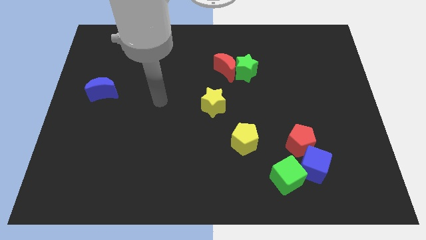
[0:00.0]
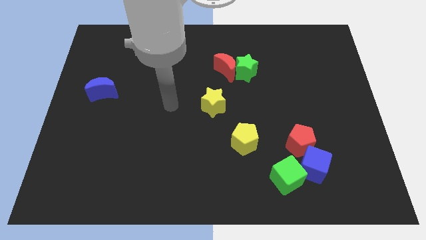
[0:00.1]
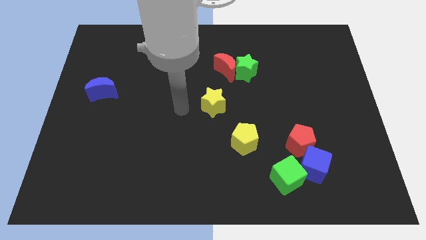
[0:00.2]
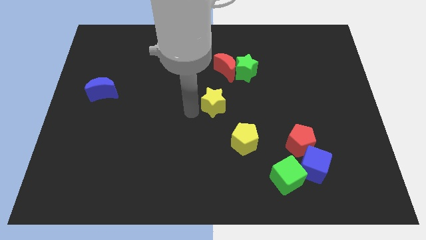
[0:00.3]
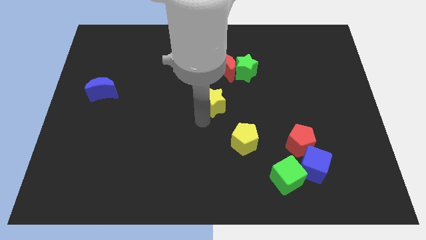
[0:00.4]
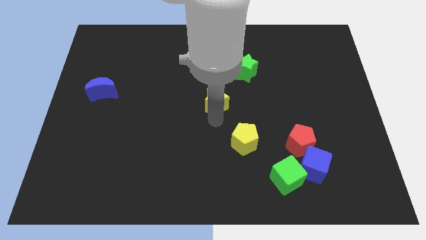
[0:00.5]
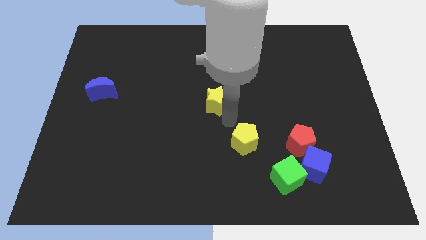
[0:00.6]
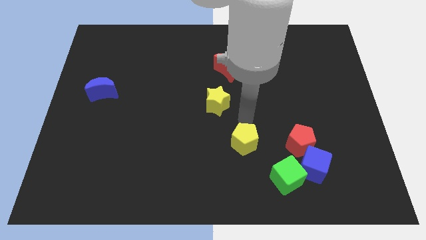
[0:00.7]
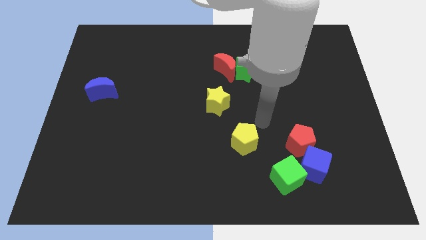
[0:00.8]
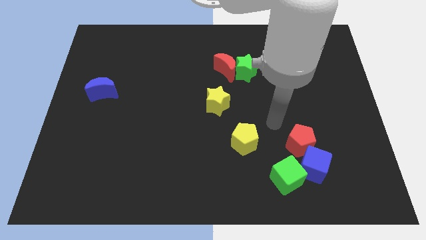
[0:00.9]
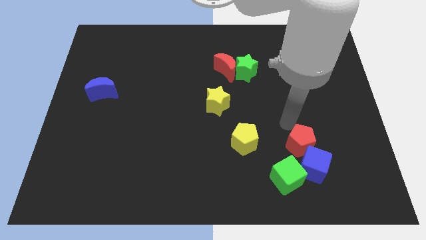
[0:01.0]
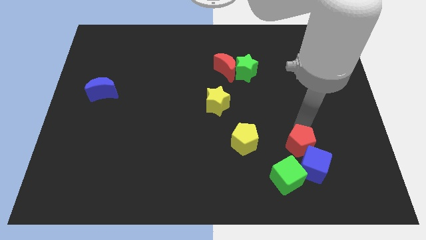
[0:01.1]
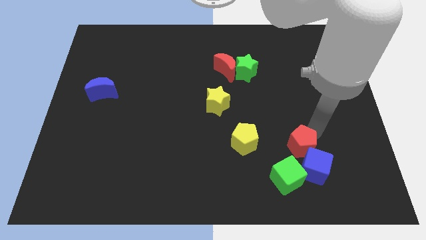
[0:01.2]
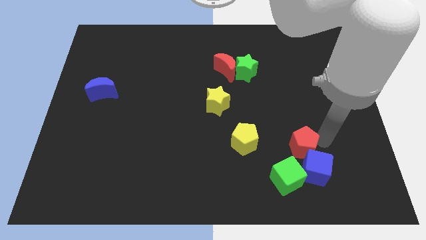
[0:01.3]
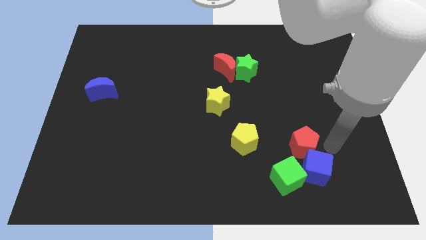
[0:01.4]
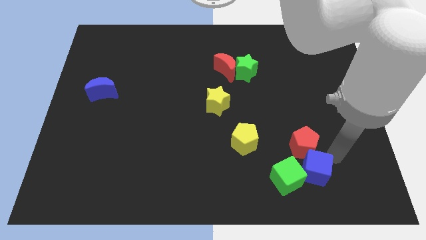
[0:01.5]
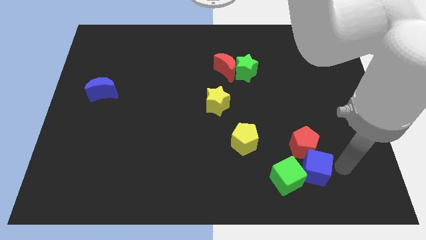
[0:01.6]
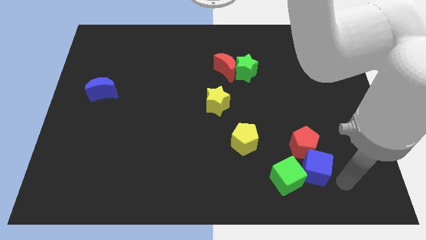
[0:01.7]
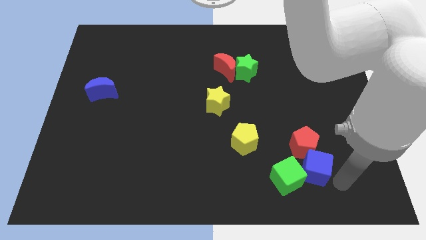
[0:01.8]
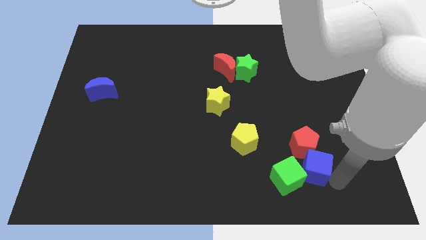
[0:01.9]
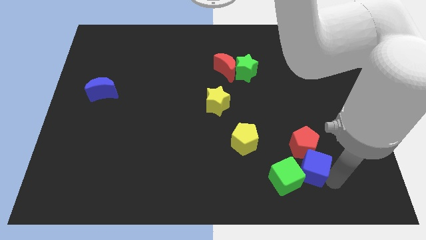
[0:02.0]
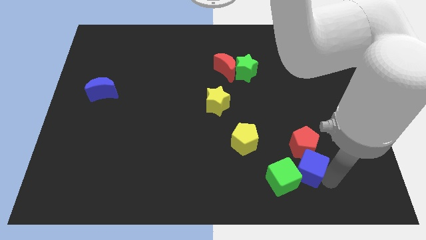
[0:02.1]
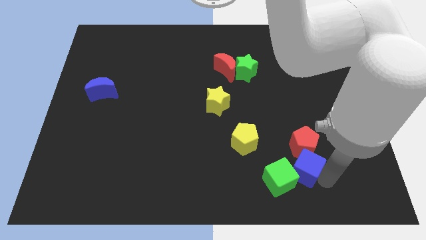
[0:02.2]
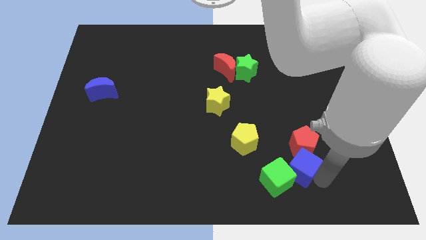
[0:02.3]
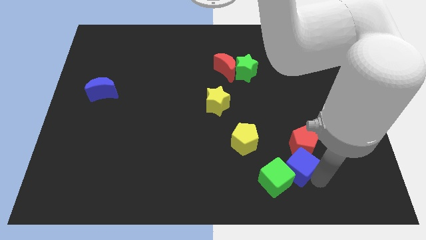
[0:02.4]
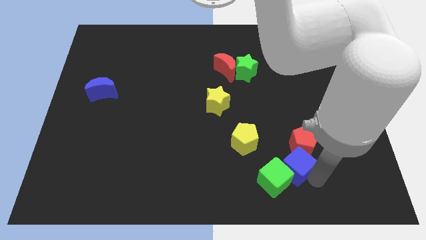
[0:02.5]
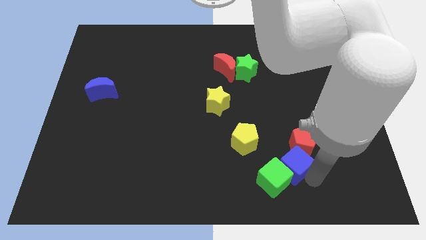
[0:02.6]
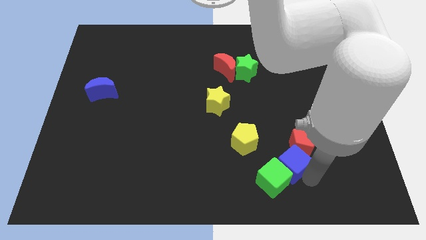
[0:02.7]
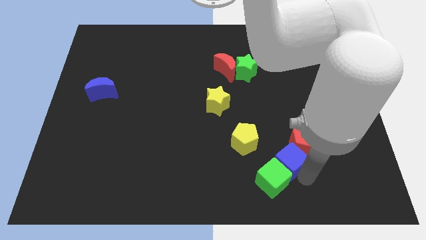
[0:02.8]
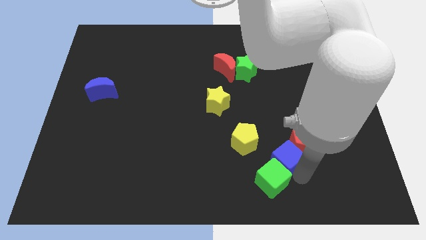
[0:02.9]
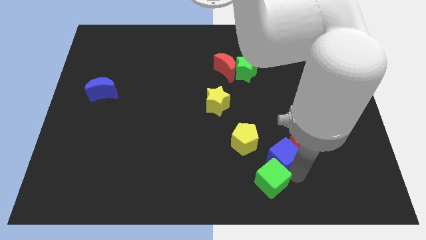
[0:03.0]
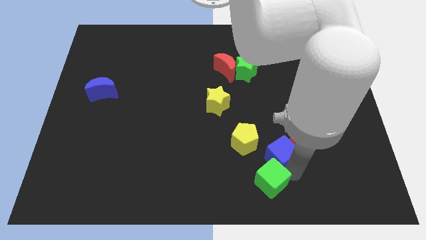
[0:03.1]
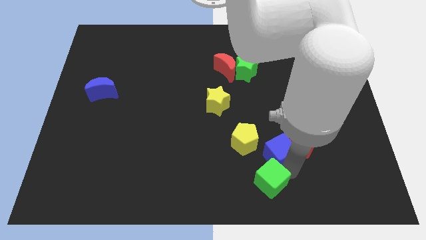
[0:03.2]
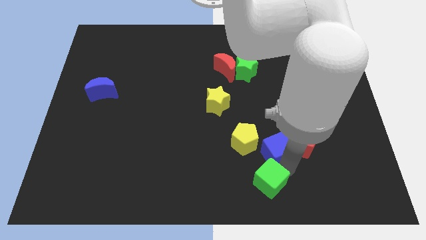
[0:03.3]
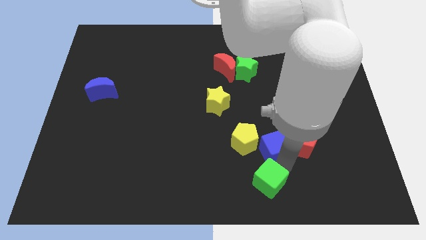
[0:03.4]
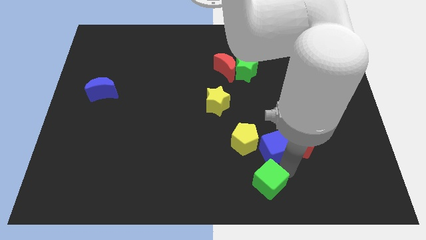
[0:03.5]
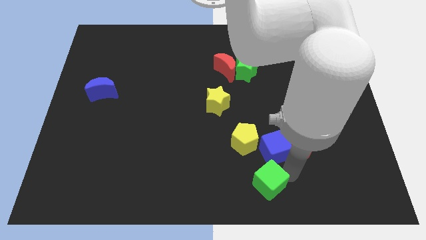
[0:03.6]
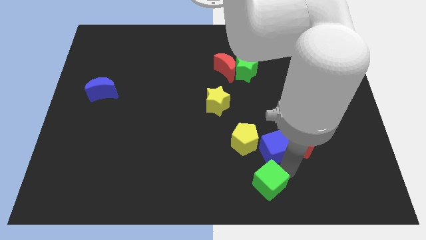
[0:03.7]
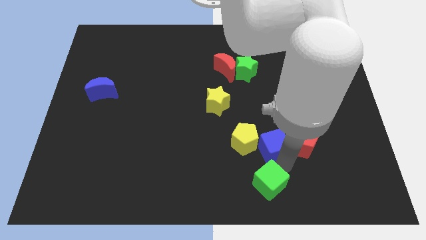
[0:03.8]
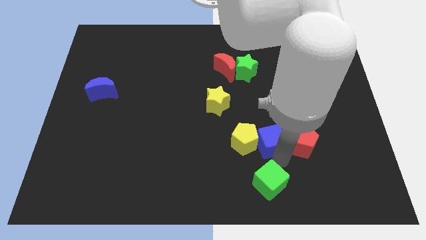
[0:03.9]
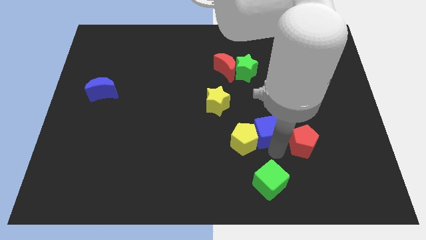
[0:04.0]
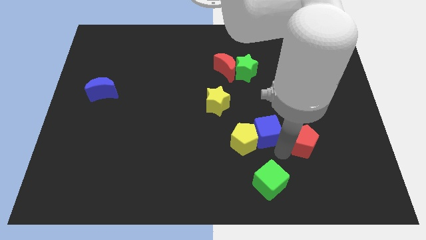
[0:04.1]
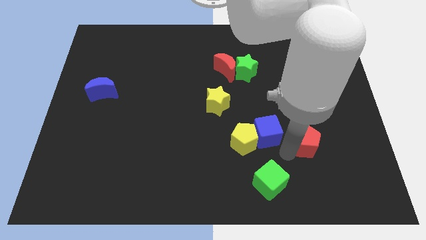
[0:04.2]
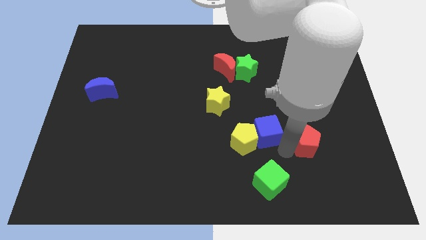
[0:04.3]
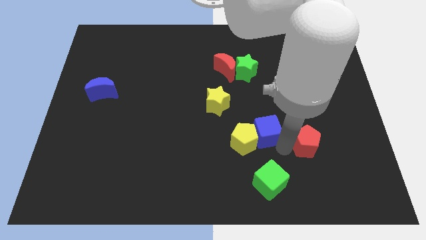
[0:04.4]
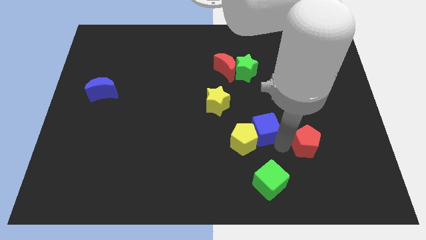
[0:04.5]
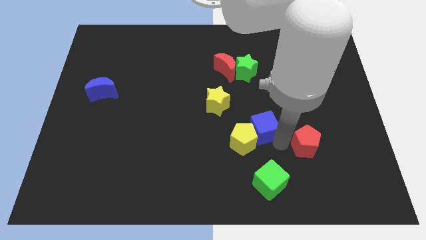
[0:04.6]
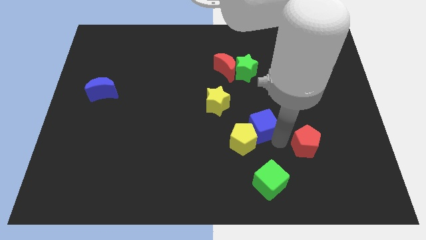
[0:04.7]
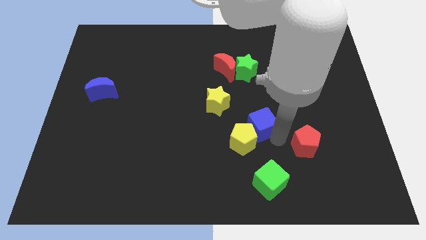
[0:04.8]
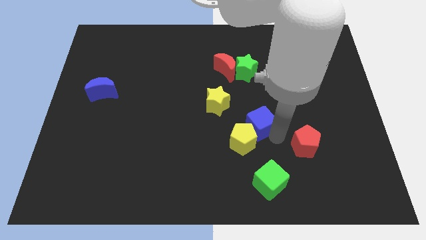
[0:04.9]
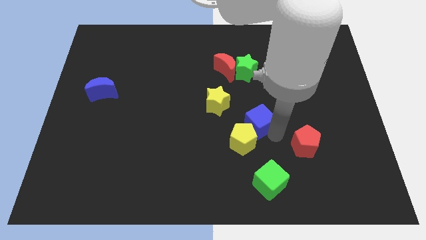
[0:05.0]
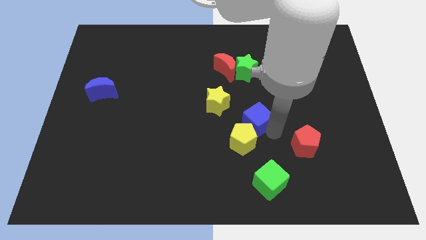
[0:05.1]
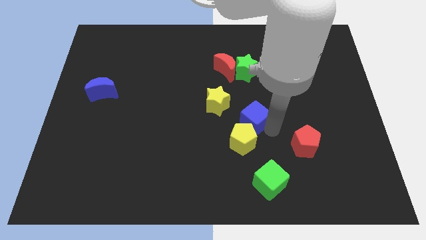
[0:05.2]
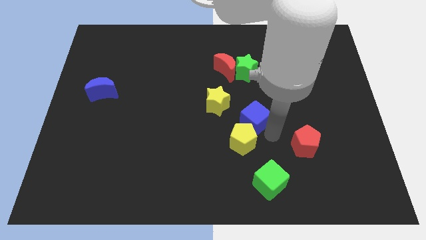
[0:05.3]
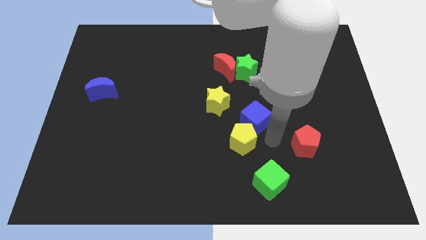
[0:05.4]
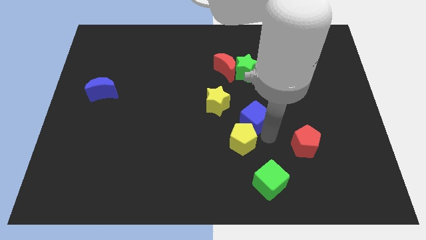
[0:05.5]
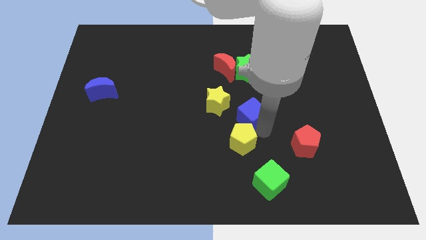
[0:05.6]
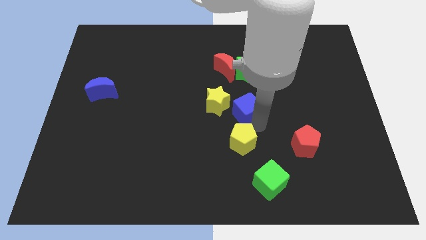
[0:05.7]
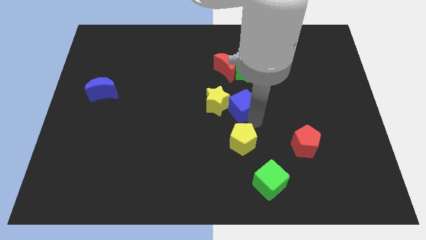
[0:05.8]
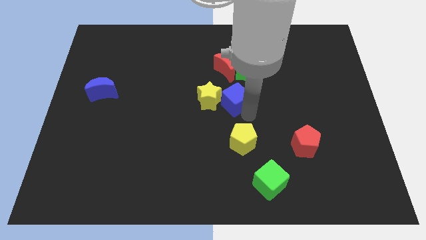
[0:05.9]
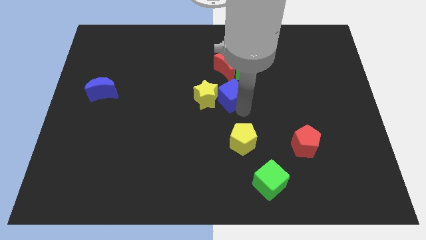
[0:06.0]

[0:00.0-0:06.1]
slide the blue cube to the bottom left side of the green star
